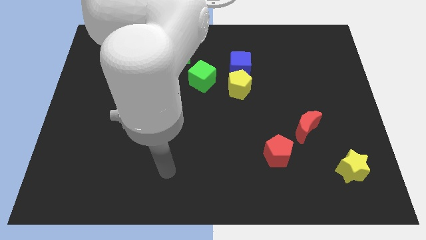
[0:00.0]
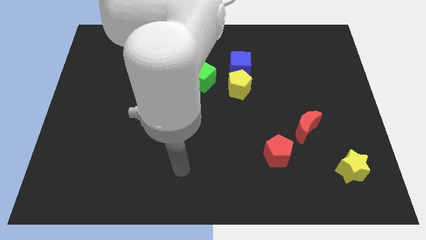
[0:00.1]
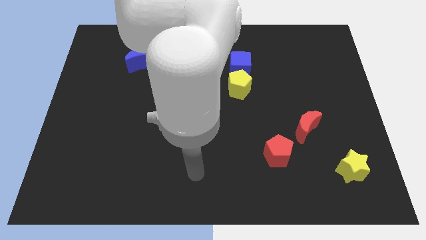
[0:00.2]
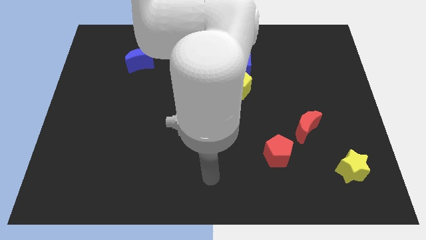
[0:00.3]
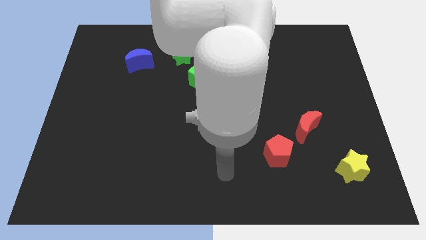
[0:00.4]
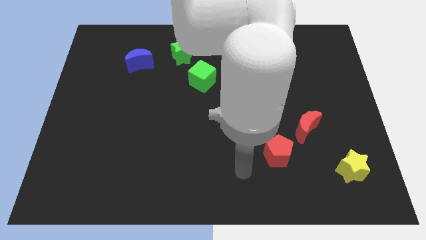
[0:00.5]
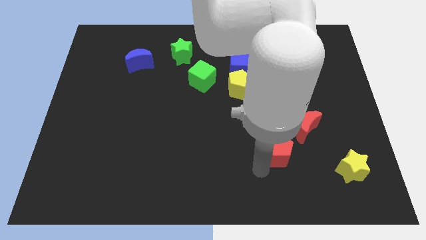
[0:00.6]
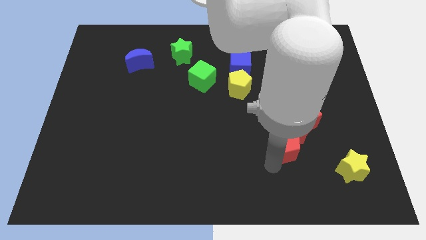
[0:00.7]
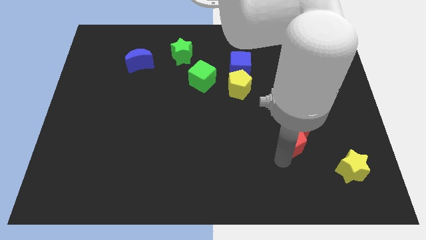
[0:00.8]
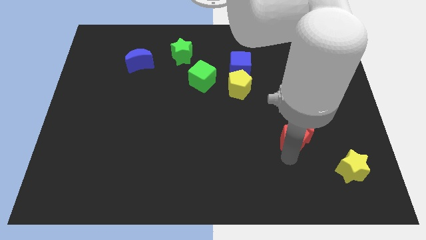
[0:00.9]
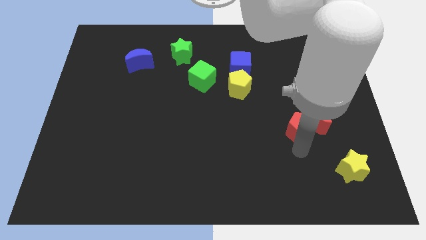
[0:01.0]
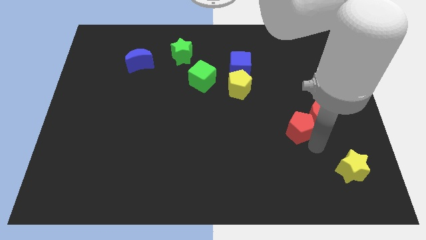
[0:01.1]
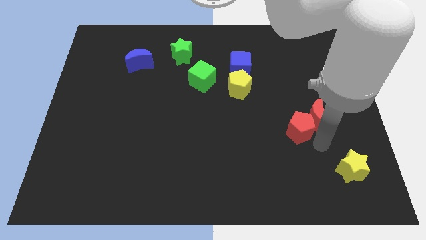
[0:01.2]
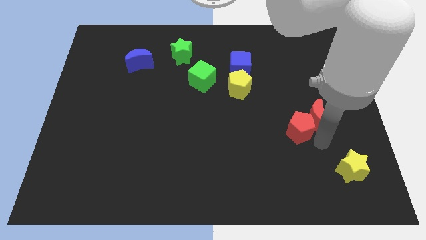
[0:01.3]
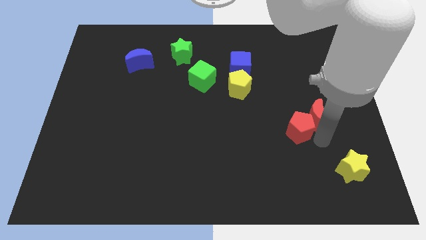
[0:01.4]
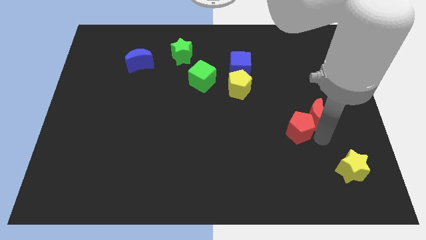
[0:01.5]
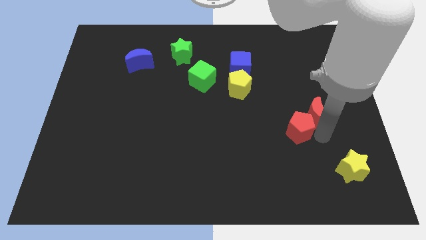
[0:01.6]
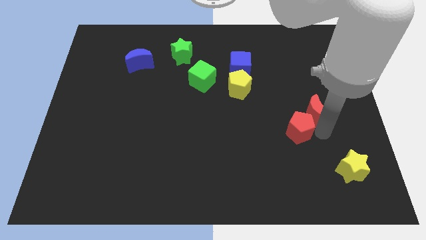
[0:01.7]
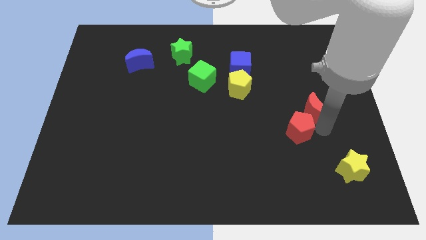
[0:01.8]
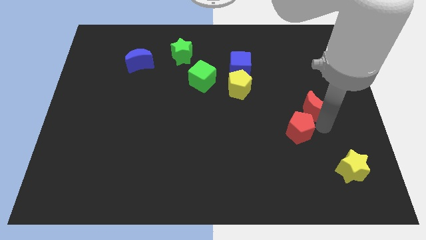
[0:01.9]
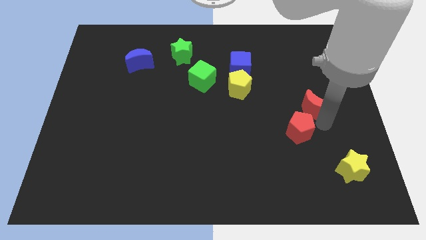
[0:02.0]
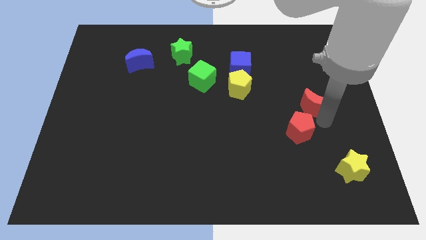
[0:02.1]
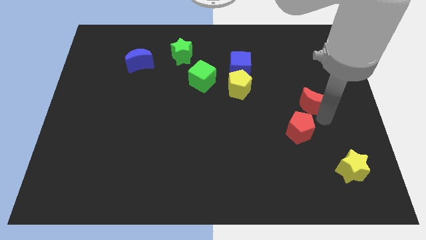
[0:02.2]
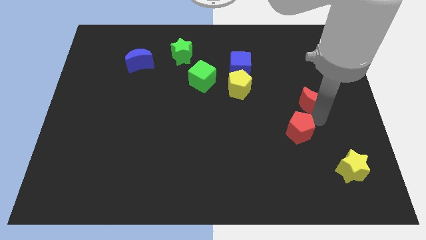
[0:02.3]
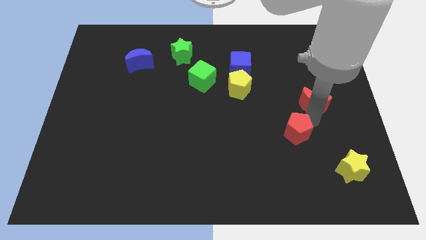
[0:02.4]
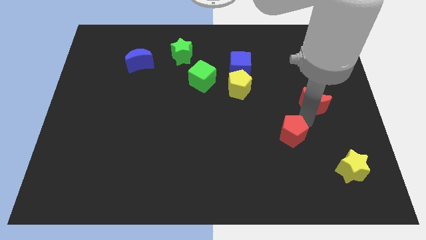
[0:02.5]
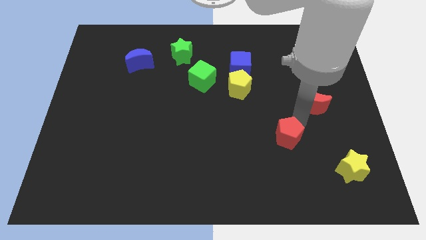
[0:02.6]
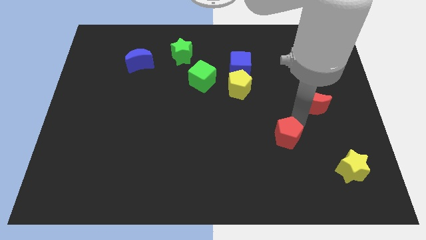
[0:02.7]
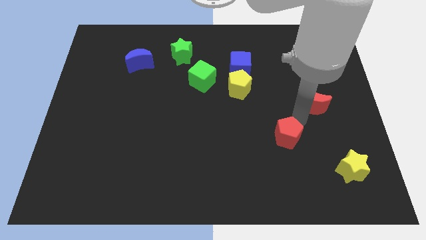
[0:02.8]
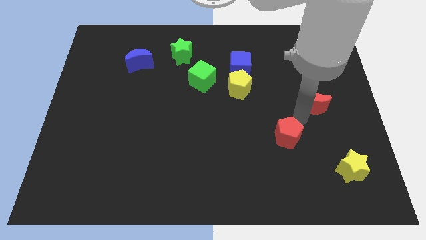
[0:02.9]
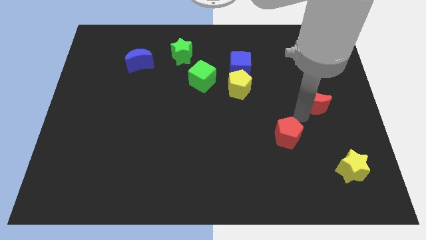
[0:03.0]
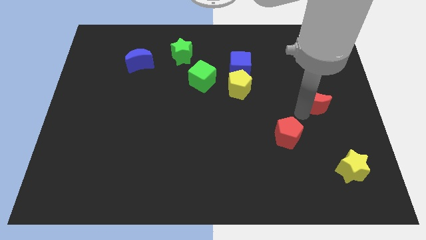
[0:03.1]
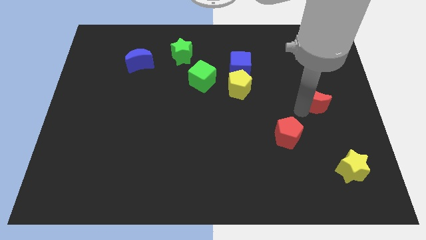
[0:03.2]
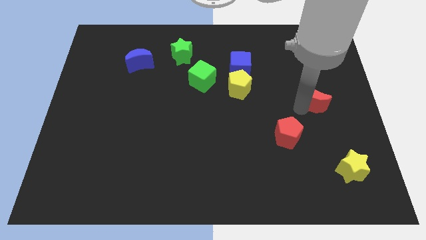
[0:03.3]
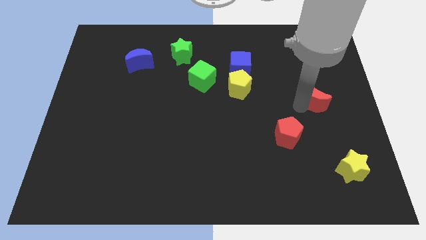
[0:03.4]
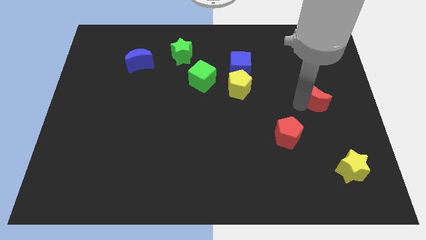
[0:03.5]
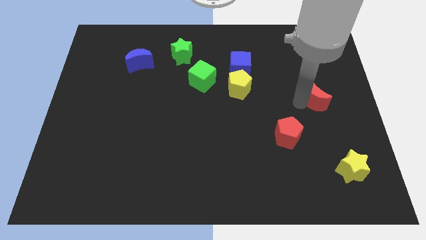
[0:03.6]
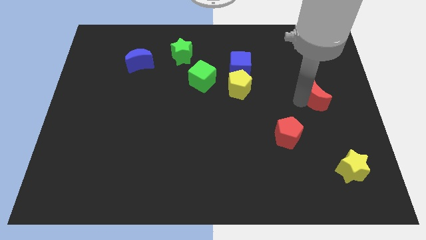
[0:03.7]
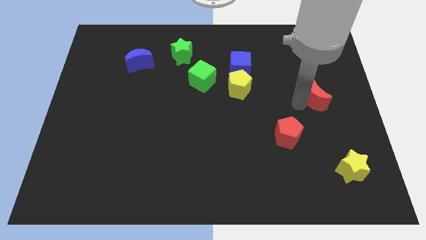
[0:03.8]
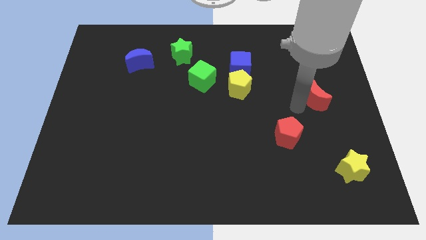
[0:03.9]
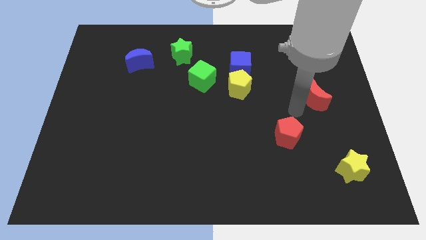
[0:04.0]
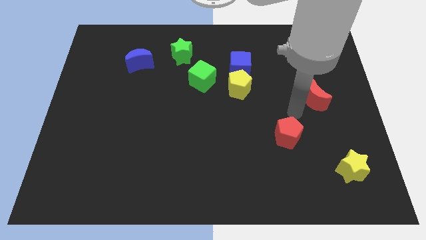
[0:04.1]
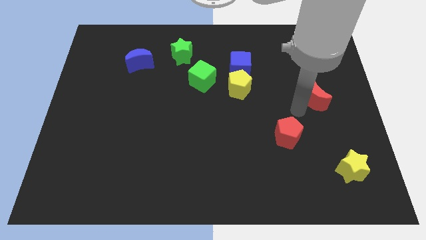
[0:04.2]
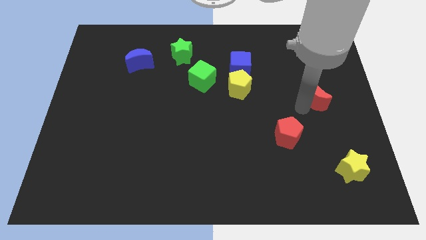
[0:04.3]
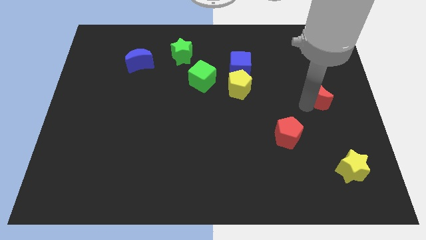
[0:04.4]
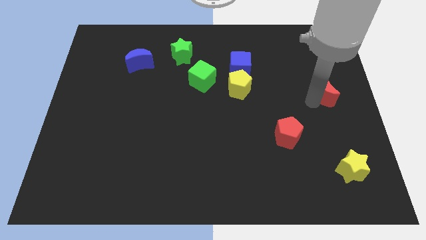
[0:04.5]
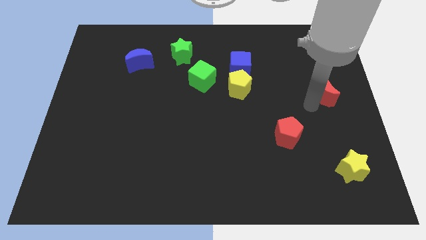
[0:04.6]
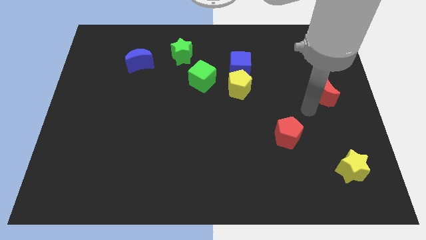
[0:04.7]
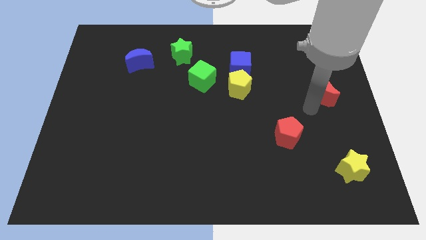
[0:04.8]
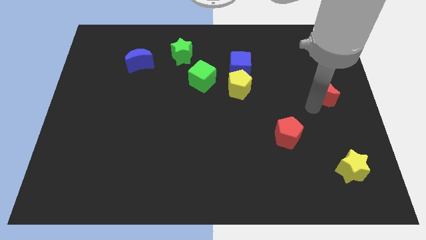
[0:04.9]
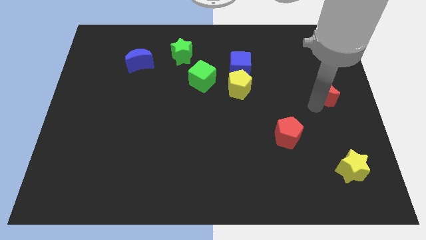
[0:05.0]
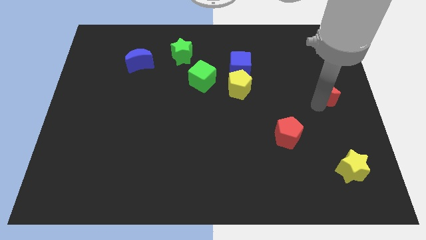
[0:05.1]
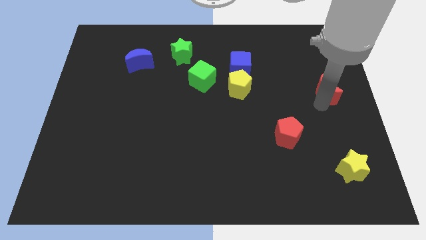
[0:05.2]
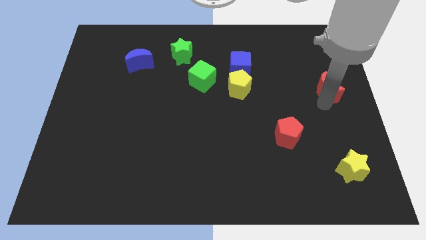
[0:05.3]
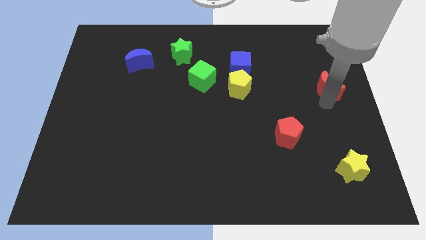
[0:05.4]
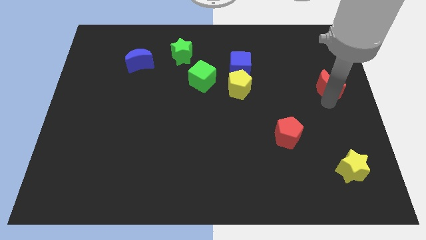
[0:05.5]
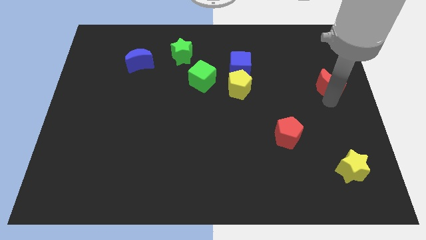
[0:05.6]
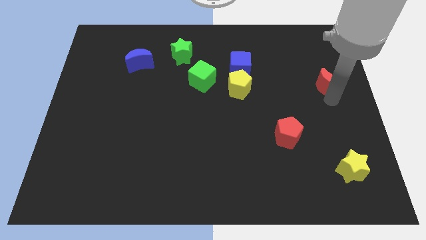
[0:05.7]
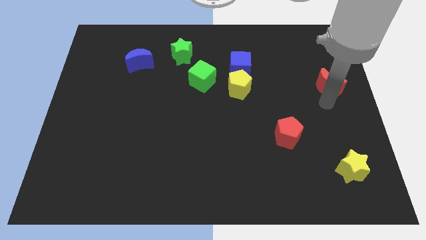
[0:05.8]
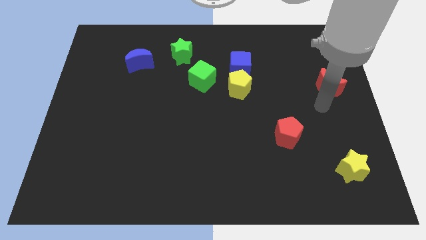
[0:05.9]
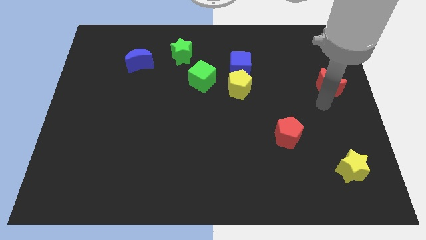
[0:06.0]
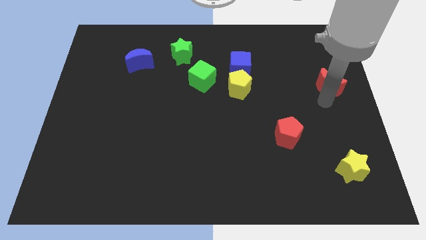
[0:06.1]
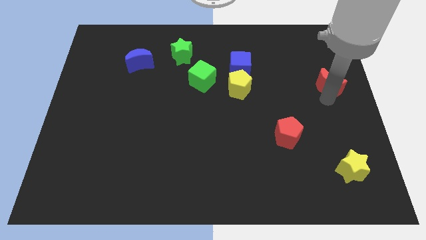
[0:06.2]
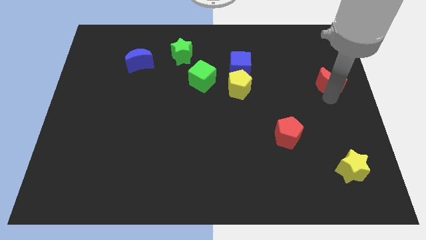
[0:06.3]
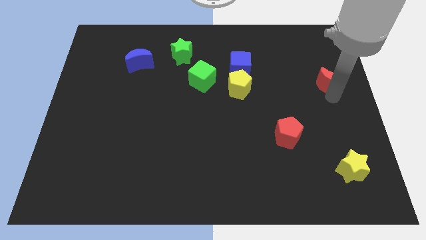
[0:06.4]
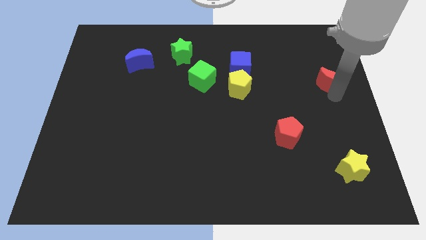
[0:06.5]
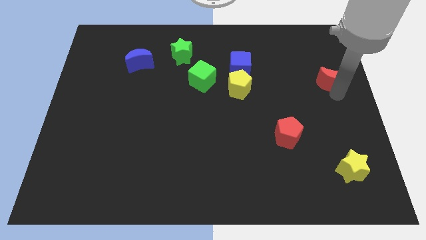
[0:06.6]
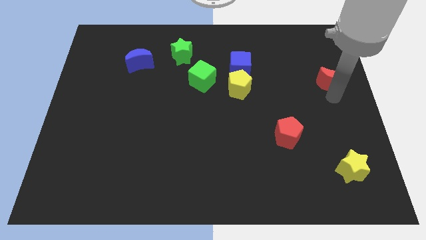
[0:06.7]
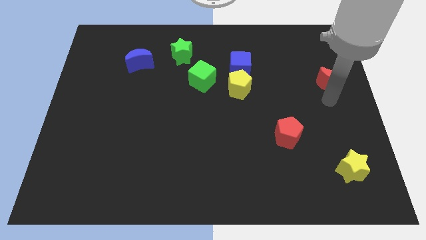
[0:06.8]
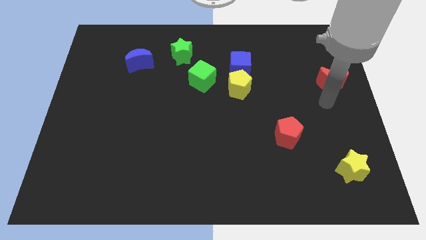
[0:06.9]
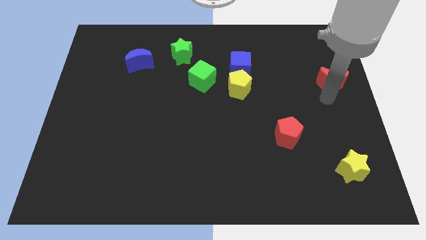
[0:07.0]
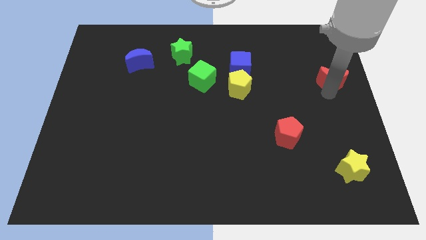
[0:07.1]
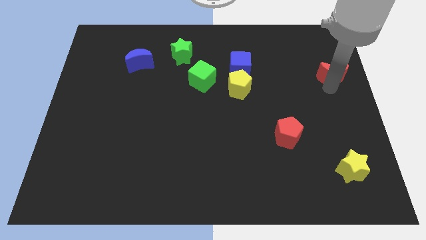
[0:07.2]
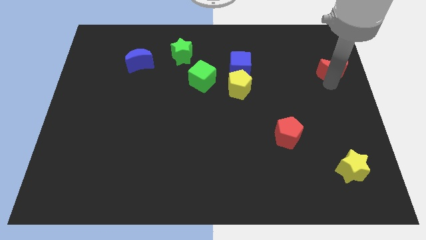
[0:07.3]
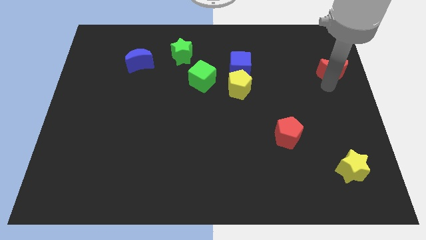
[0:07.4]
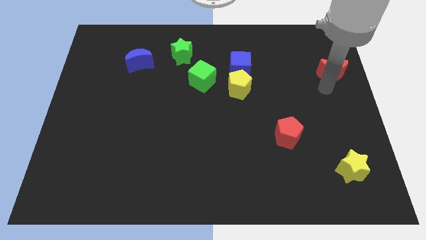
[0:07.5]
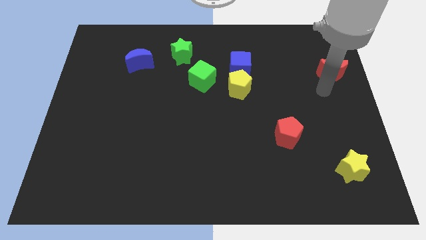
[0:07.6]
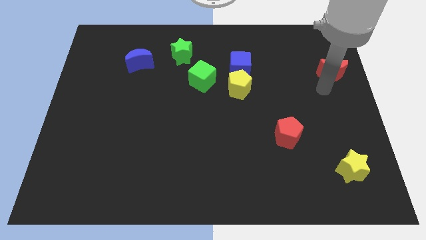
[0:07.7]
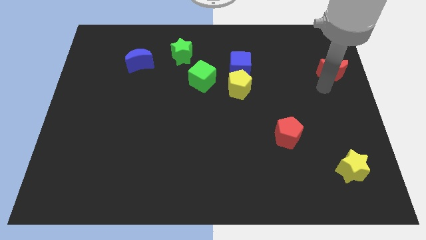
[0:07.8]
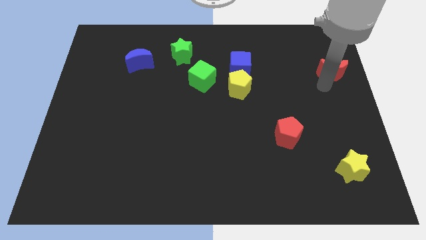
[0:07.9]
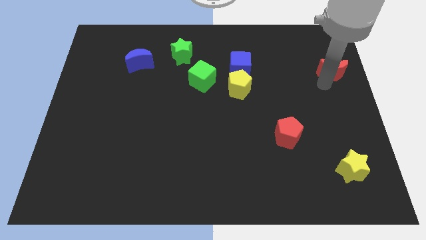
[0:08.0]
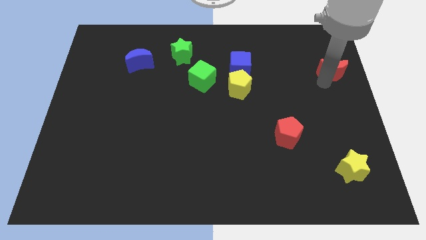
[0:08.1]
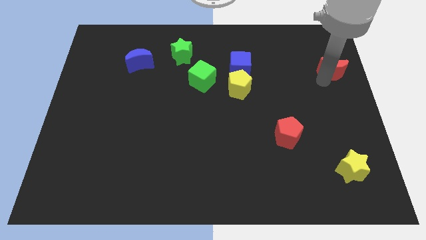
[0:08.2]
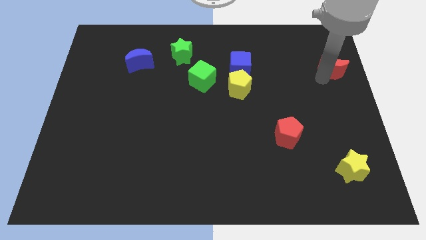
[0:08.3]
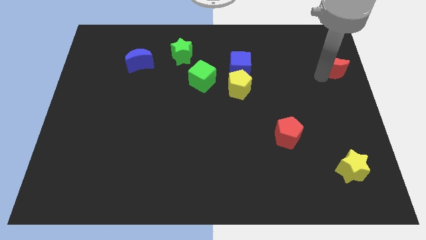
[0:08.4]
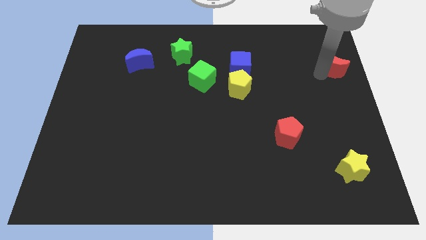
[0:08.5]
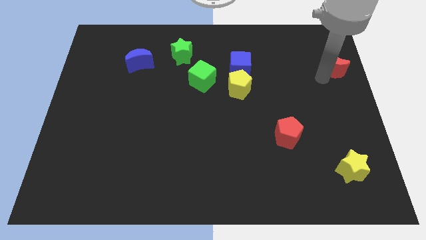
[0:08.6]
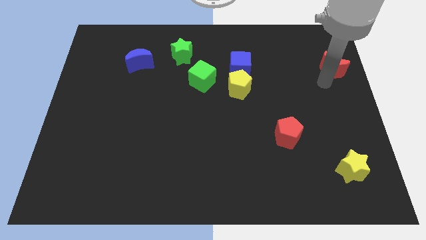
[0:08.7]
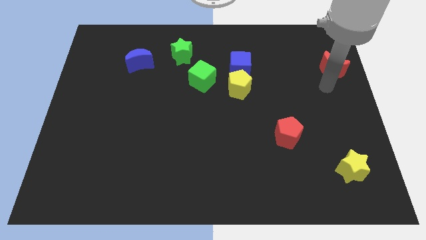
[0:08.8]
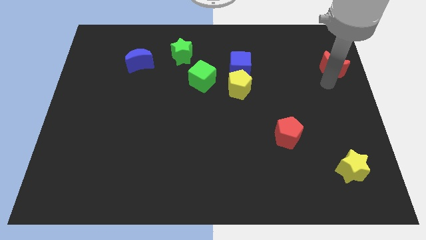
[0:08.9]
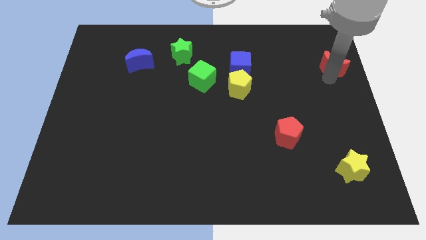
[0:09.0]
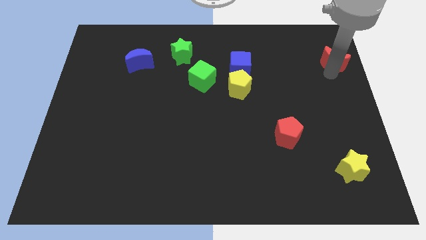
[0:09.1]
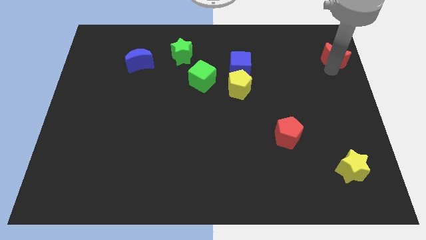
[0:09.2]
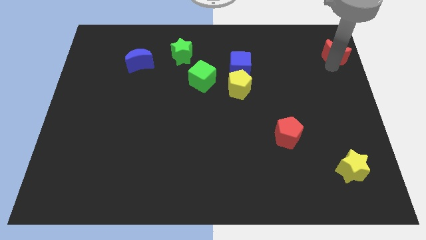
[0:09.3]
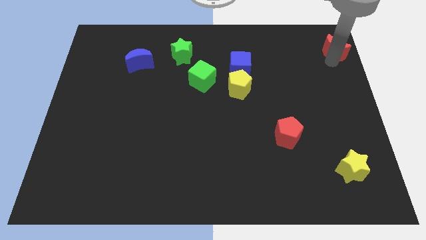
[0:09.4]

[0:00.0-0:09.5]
put the red moon to the top right of the board
